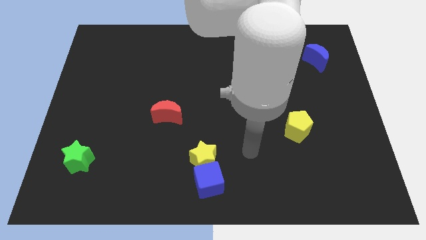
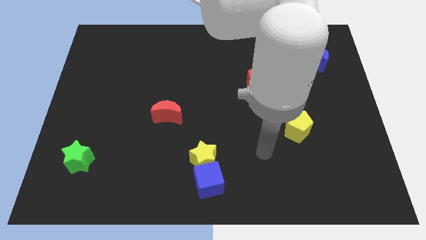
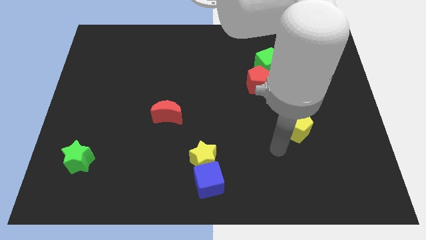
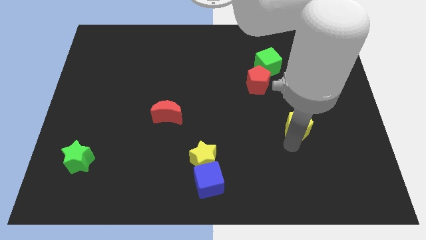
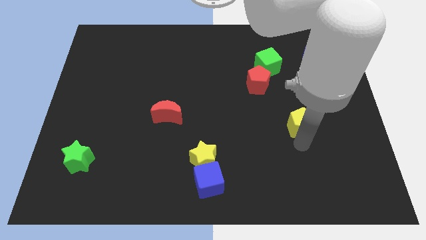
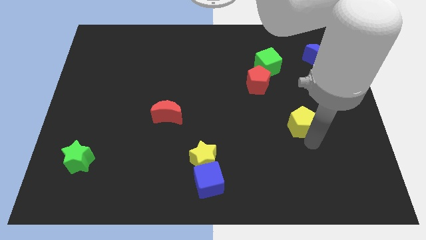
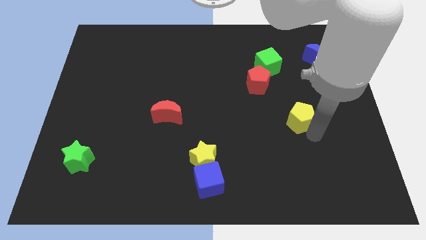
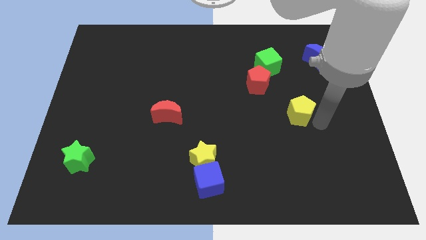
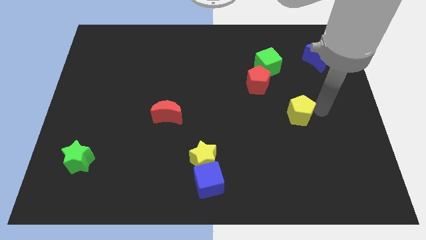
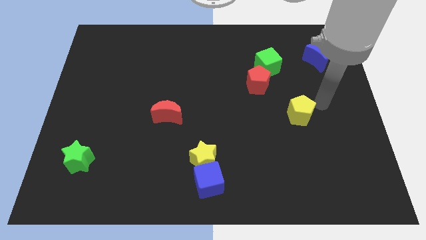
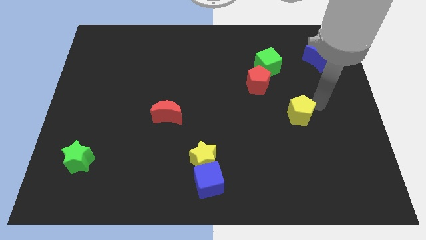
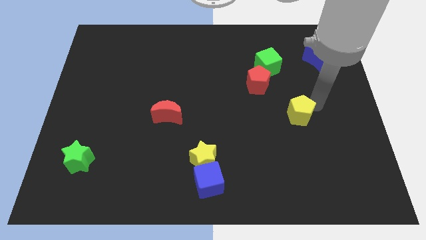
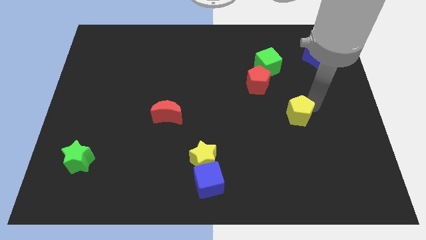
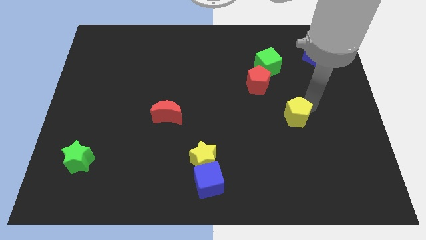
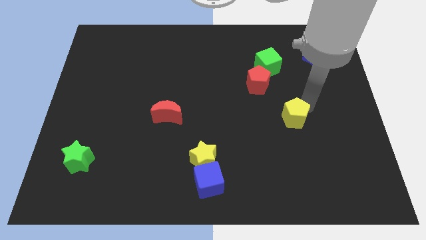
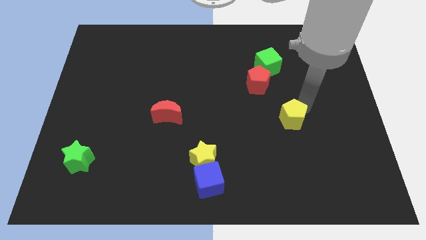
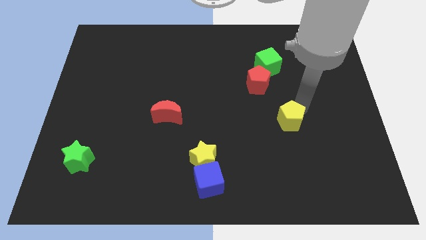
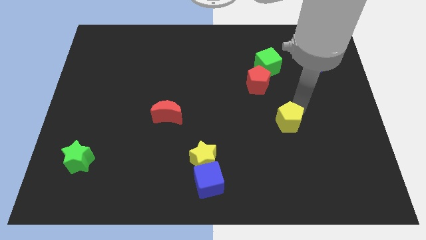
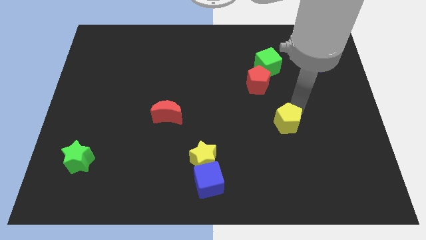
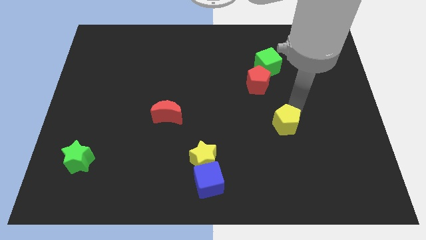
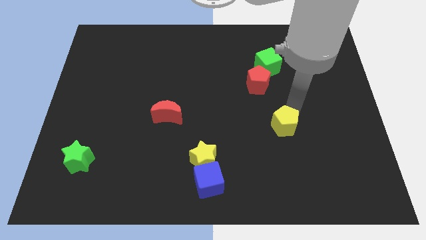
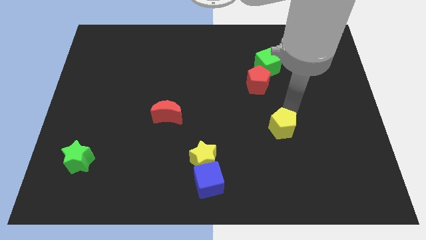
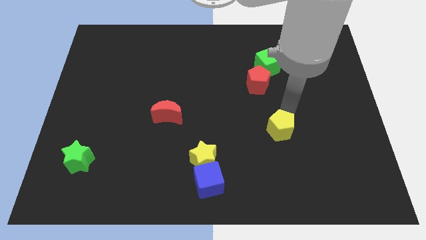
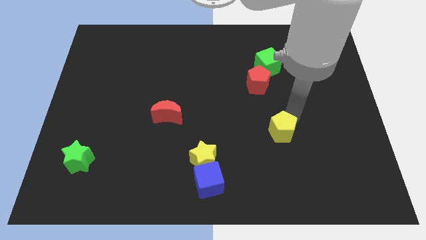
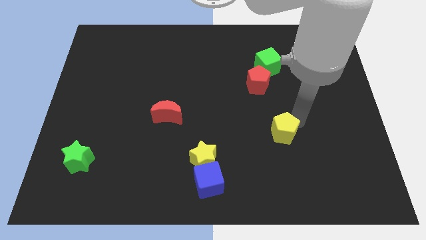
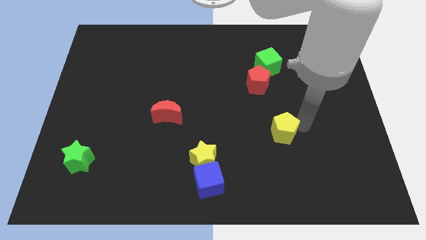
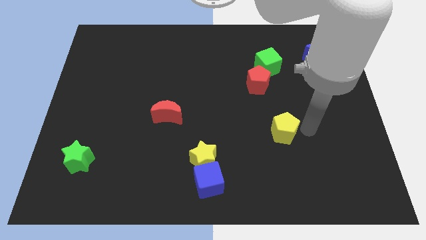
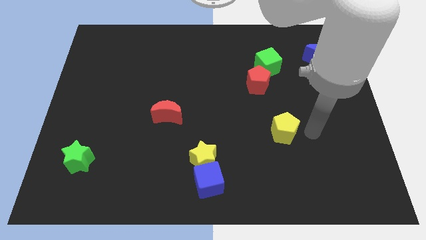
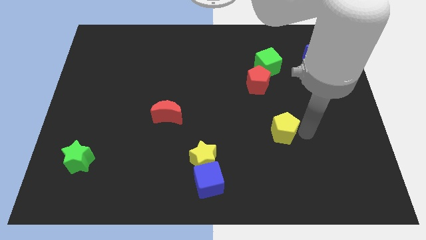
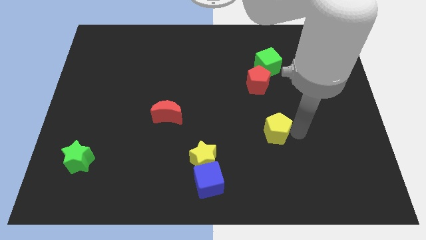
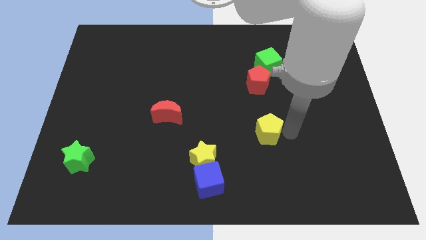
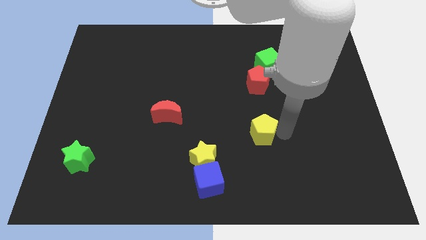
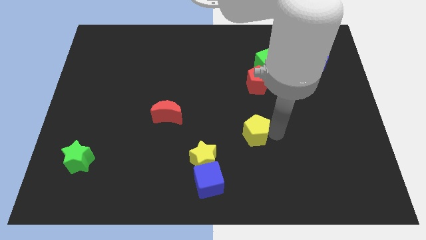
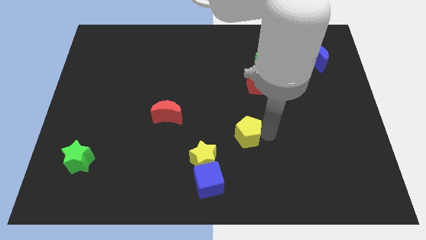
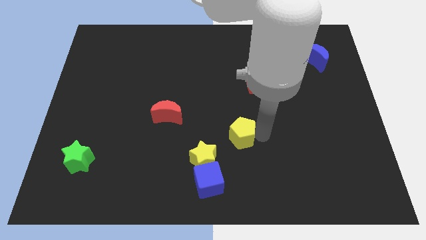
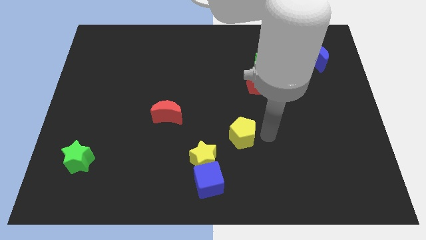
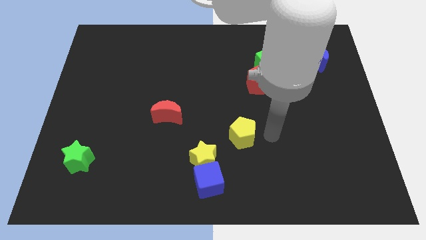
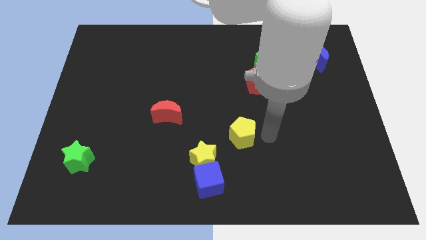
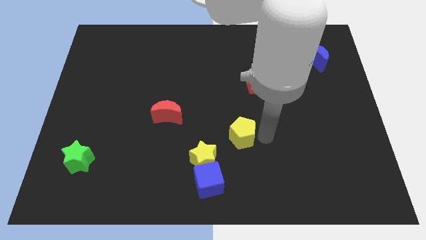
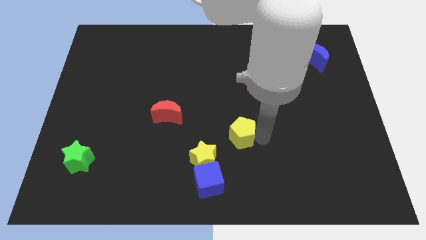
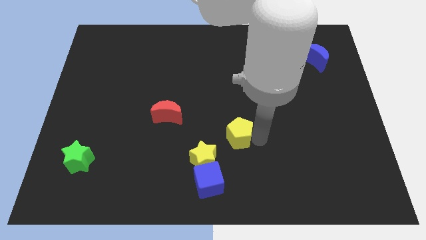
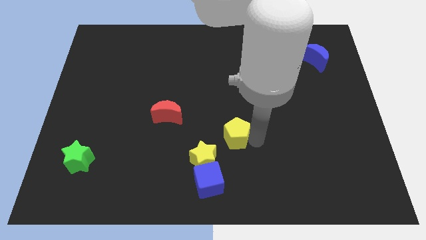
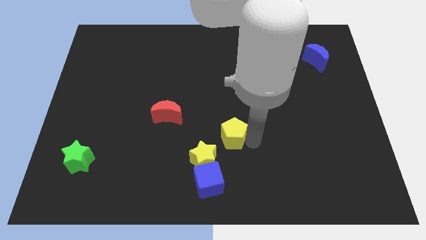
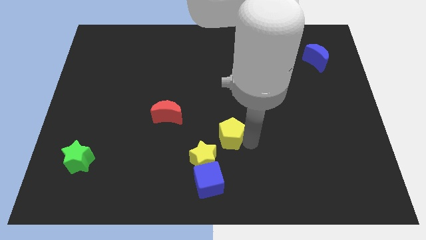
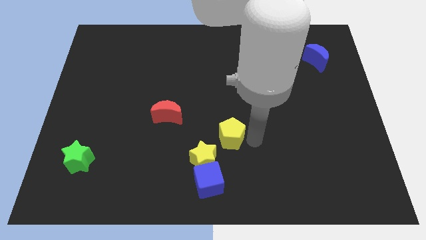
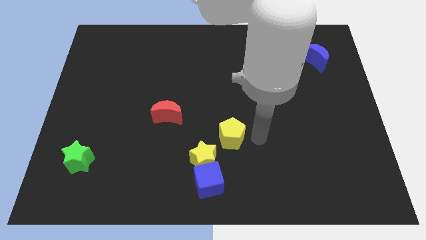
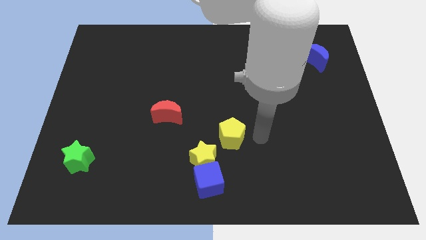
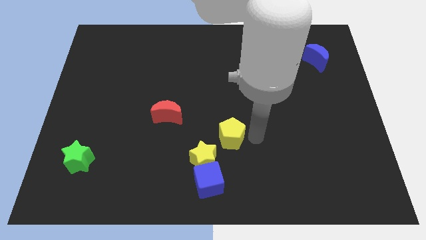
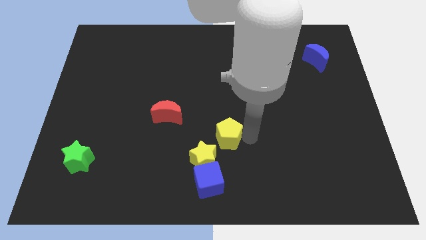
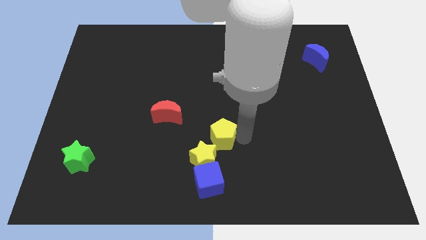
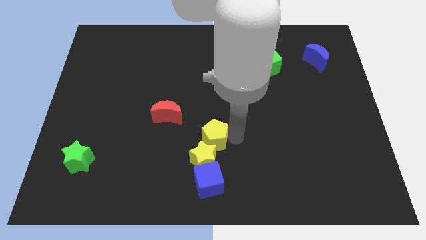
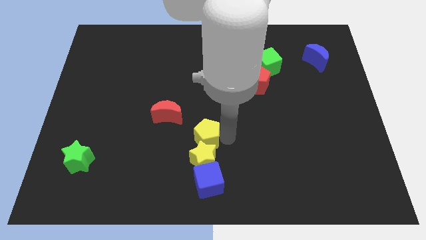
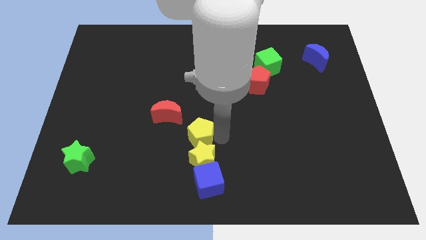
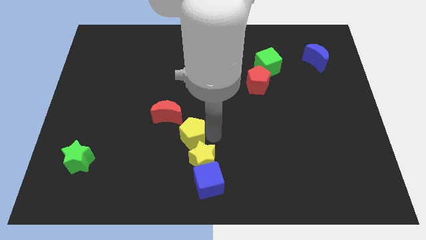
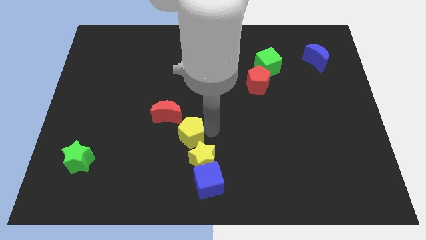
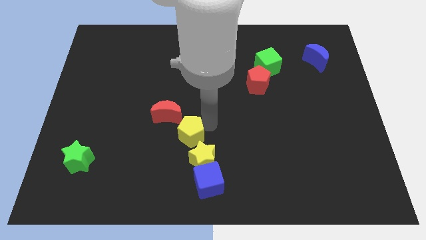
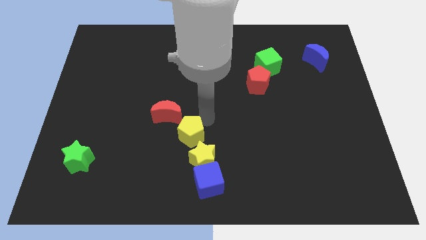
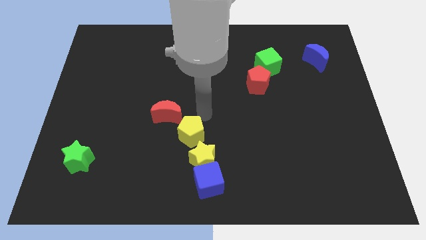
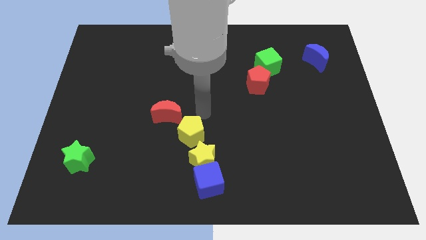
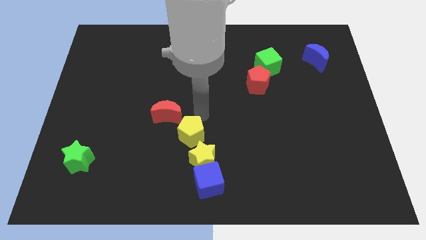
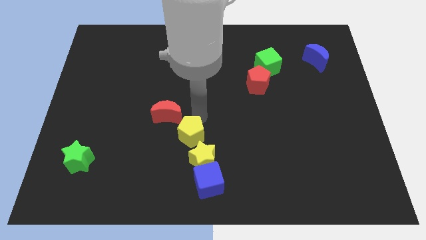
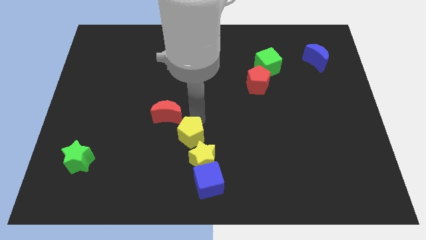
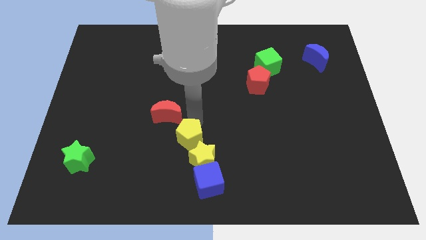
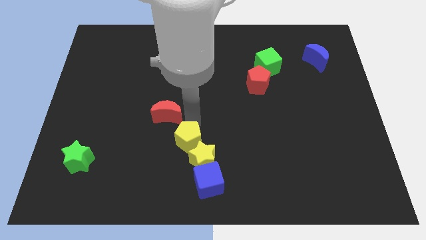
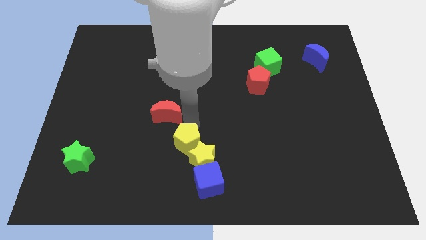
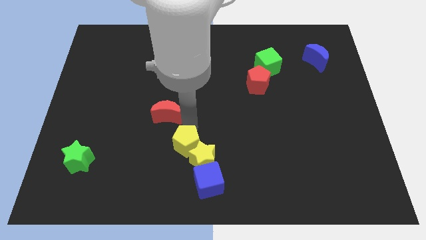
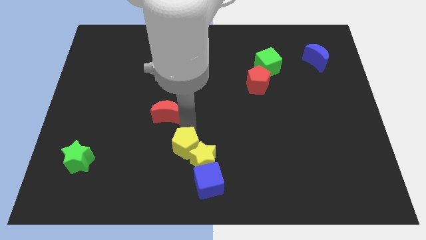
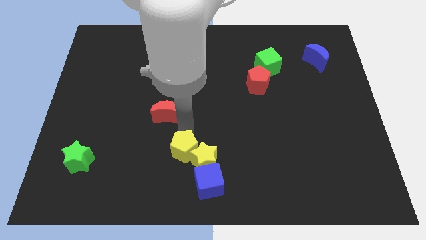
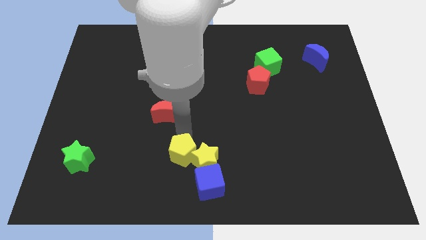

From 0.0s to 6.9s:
slide the yellow pentagon to the bottom left of the yellow star
